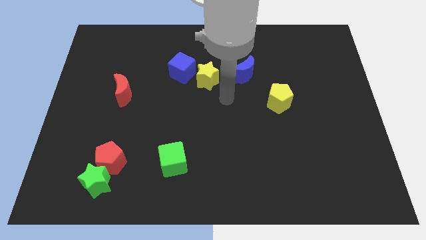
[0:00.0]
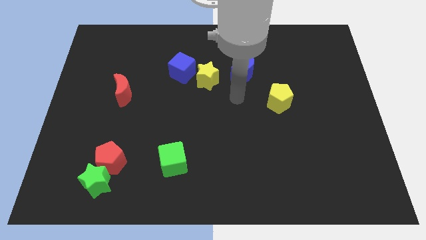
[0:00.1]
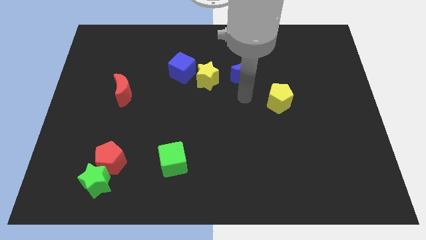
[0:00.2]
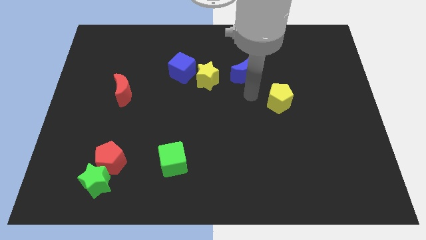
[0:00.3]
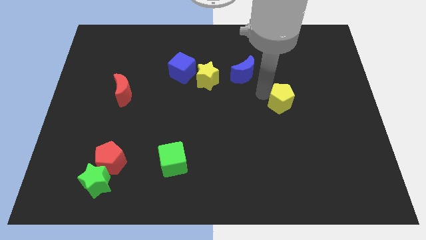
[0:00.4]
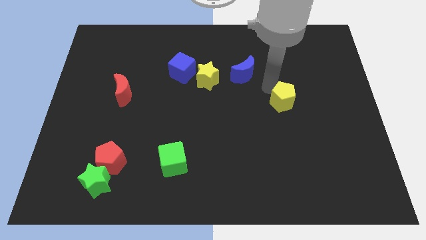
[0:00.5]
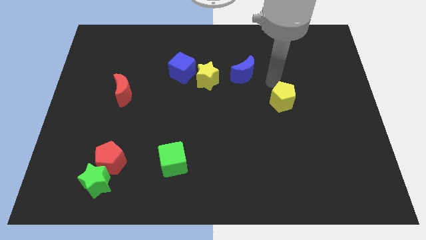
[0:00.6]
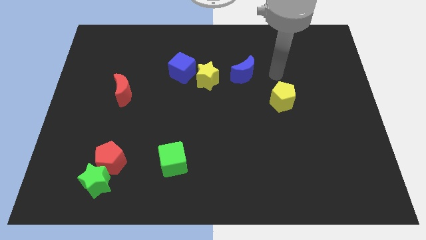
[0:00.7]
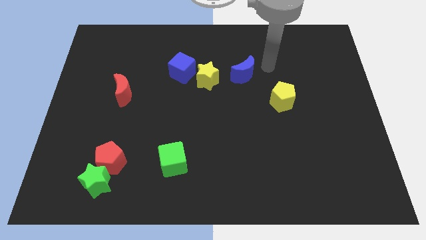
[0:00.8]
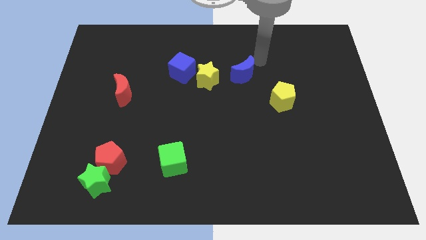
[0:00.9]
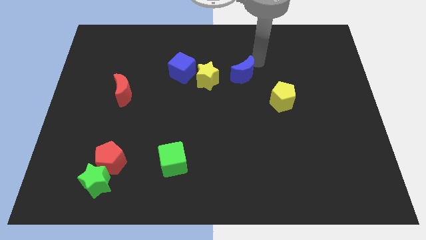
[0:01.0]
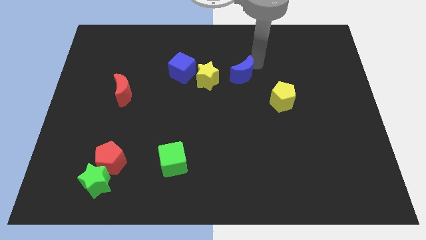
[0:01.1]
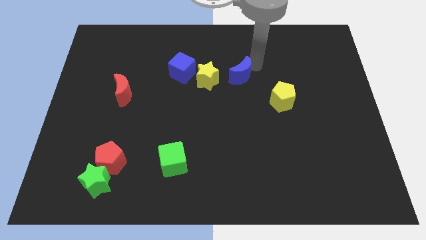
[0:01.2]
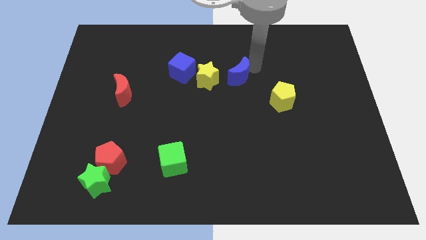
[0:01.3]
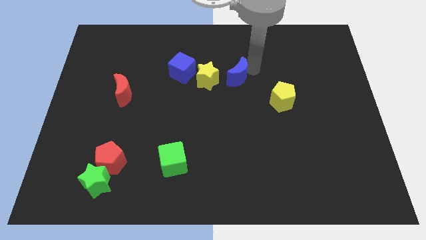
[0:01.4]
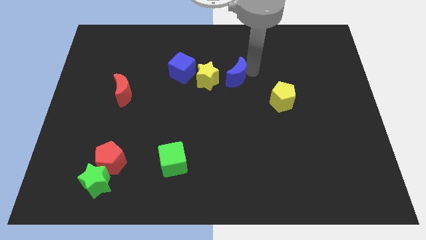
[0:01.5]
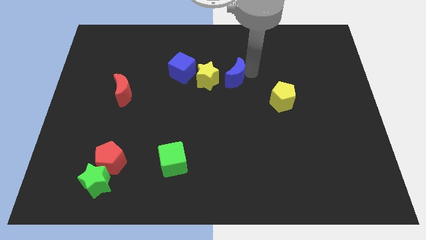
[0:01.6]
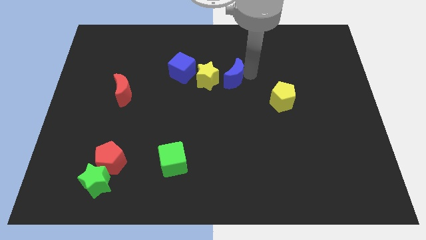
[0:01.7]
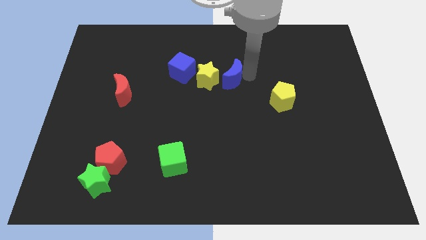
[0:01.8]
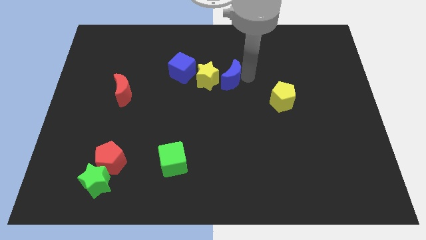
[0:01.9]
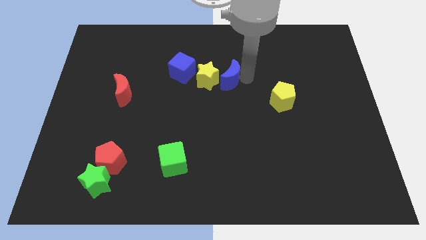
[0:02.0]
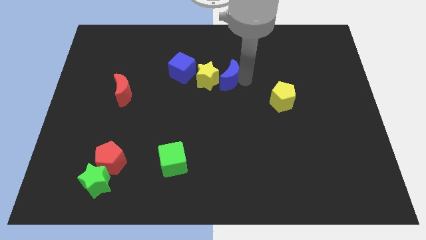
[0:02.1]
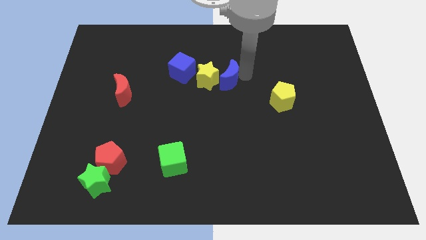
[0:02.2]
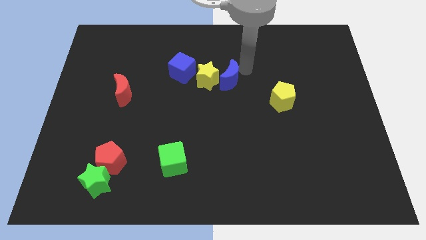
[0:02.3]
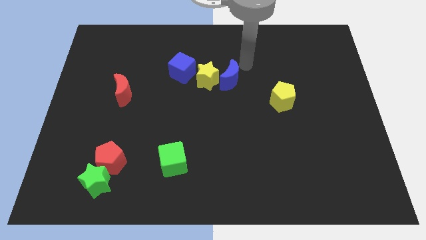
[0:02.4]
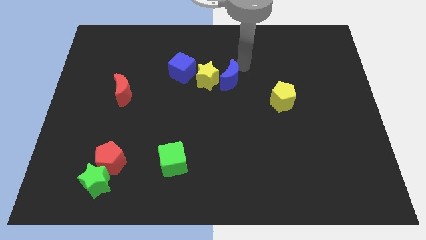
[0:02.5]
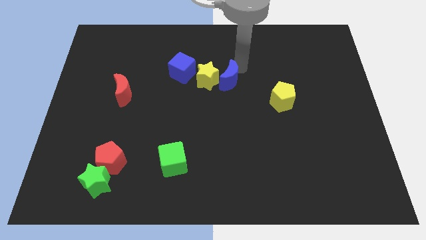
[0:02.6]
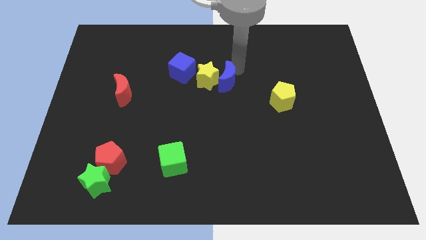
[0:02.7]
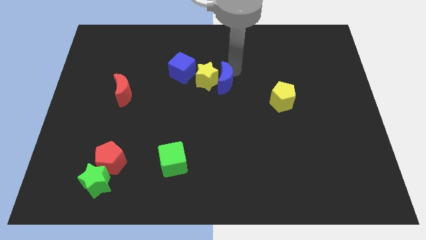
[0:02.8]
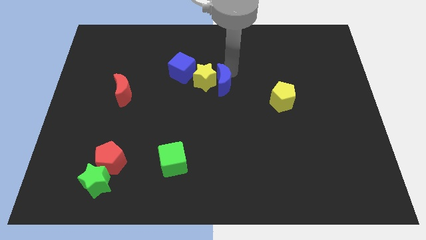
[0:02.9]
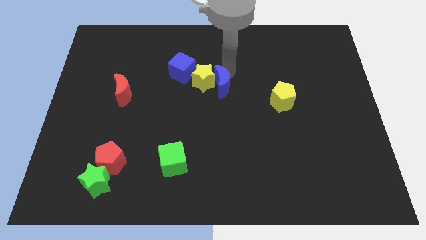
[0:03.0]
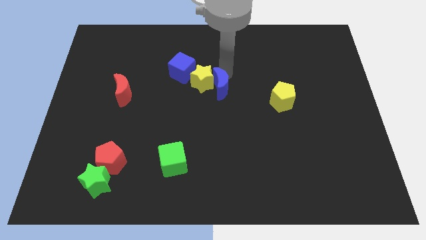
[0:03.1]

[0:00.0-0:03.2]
slightly move the blue moon down and then to the left

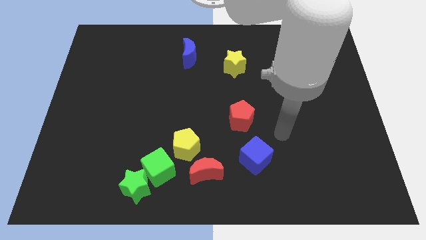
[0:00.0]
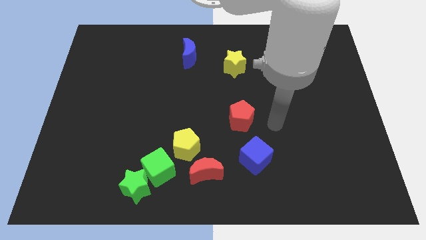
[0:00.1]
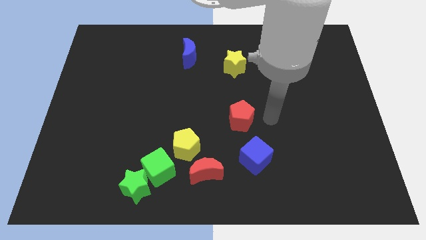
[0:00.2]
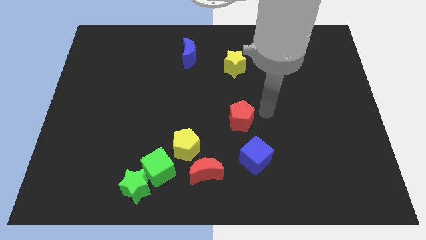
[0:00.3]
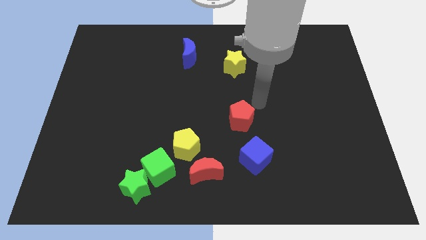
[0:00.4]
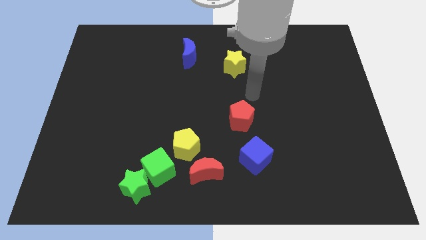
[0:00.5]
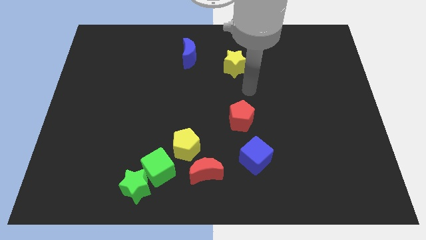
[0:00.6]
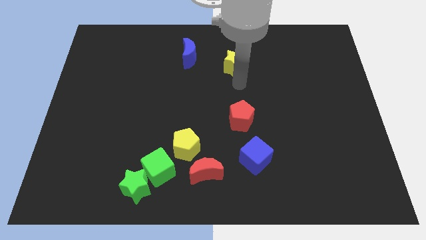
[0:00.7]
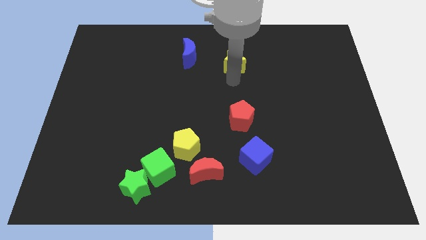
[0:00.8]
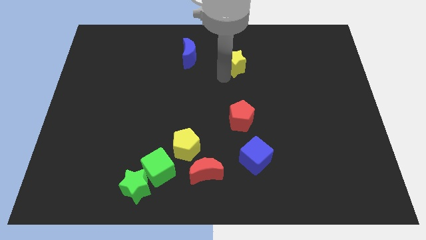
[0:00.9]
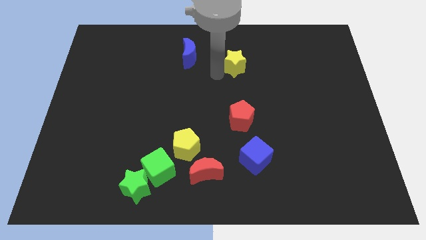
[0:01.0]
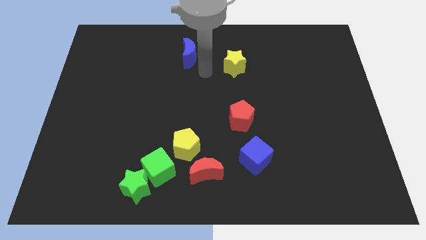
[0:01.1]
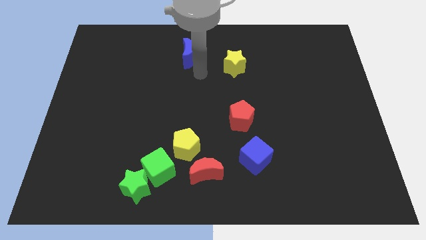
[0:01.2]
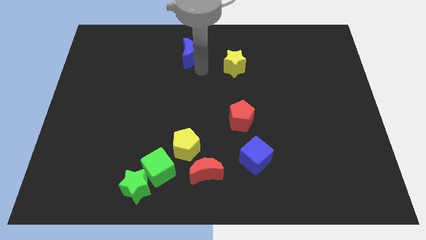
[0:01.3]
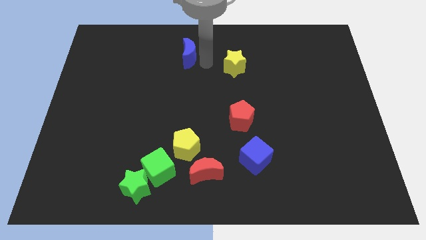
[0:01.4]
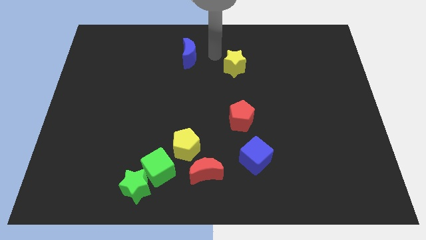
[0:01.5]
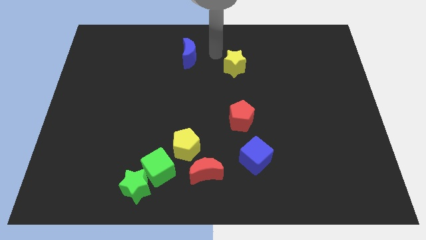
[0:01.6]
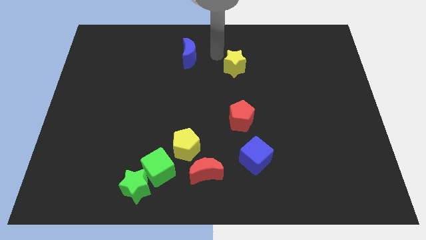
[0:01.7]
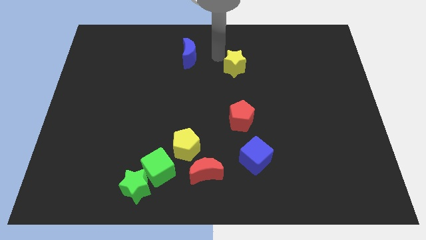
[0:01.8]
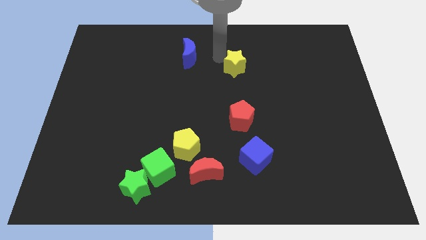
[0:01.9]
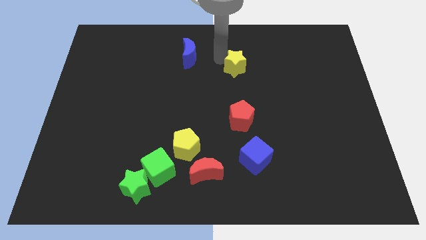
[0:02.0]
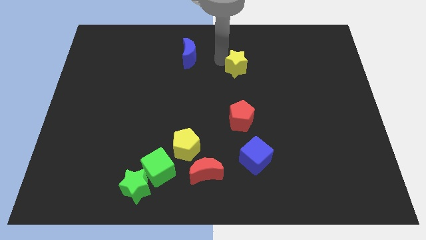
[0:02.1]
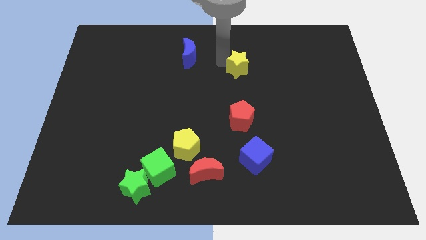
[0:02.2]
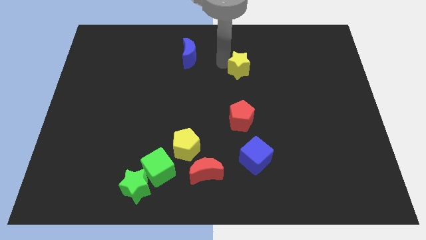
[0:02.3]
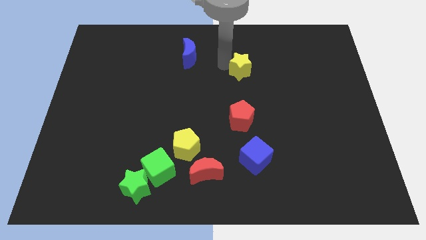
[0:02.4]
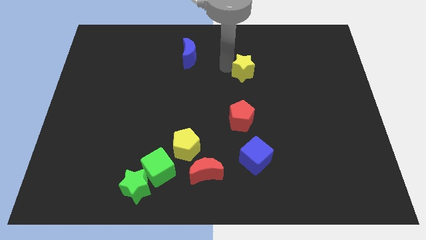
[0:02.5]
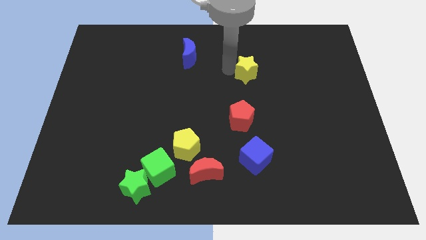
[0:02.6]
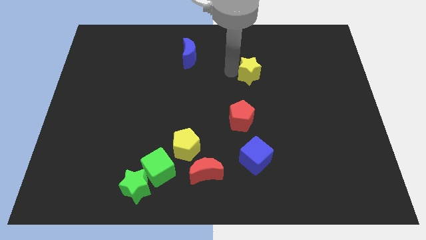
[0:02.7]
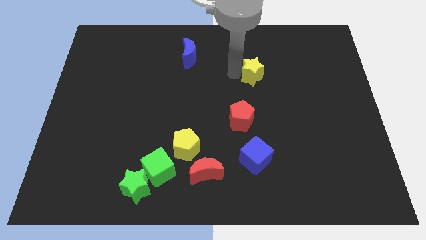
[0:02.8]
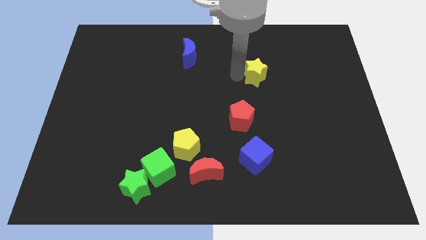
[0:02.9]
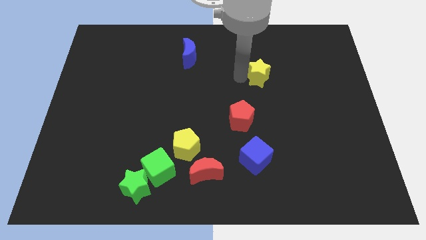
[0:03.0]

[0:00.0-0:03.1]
slightly push the yellow star downwards and to the right

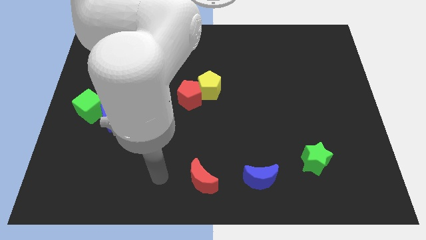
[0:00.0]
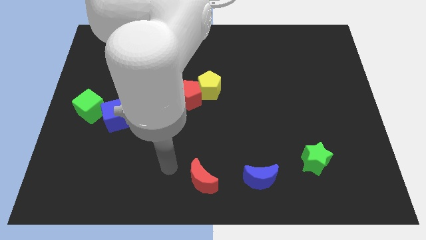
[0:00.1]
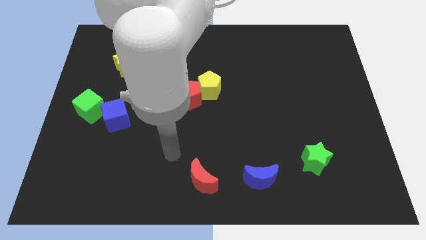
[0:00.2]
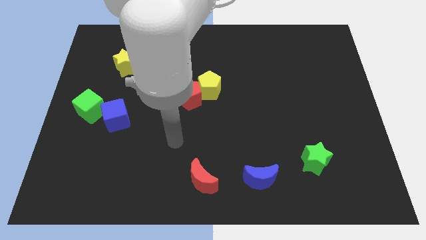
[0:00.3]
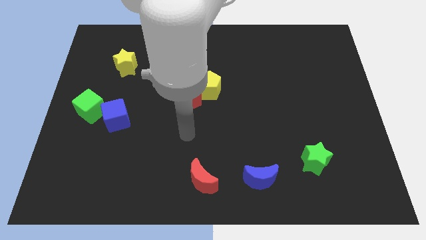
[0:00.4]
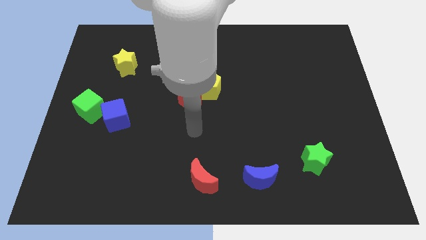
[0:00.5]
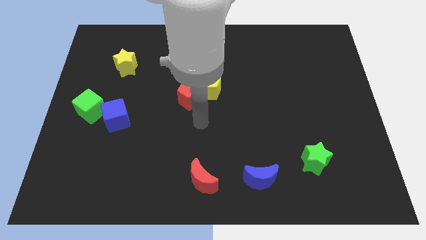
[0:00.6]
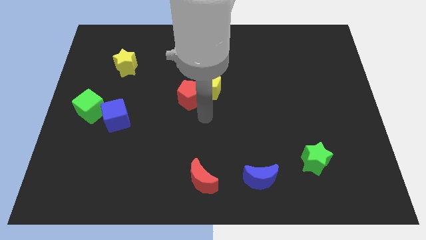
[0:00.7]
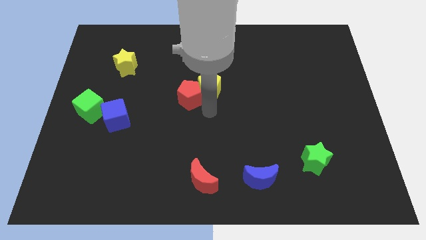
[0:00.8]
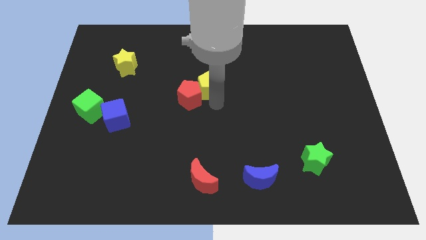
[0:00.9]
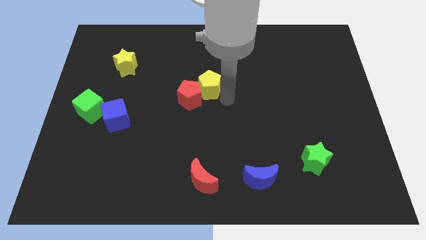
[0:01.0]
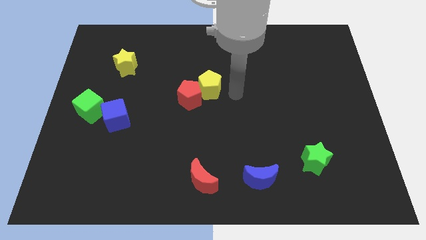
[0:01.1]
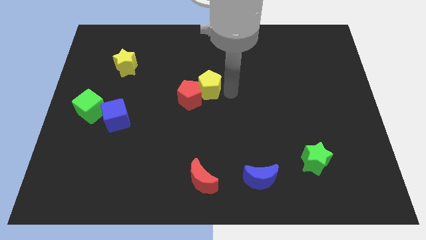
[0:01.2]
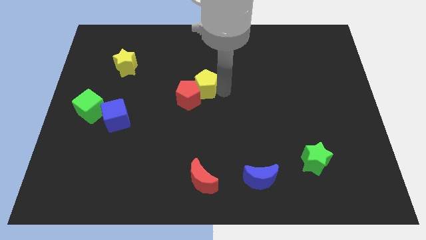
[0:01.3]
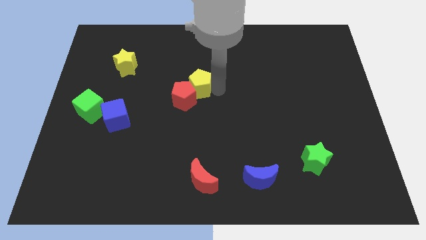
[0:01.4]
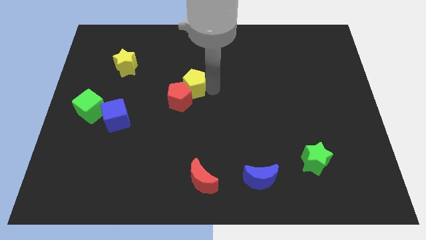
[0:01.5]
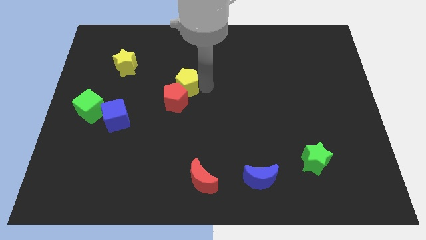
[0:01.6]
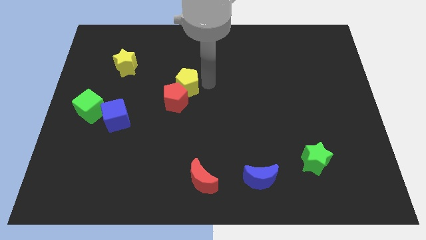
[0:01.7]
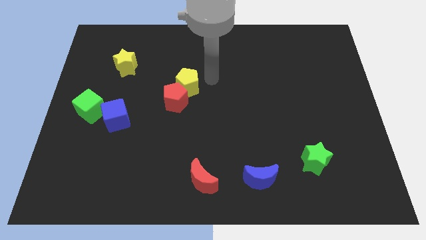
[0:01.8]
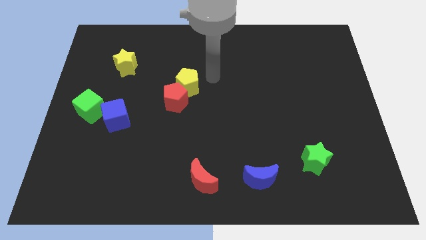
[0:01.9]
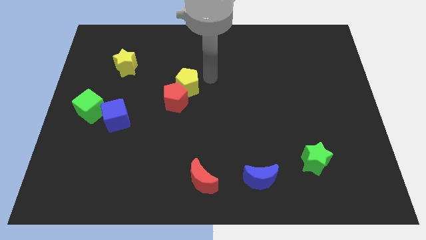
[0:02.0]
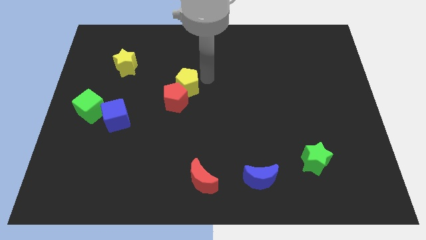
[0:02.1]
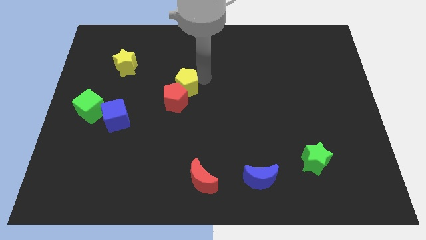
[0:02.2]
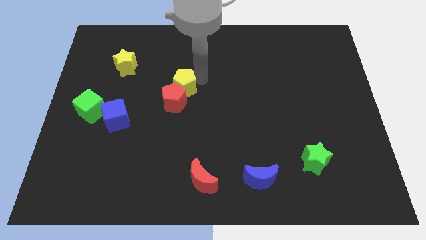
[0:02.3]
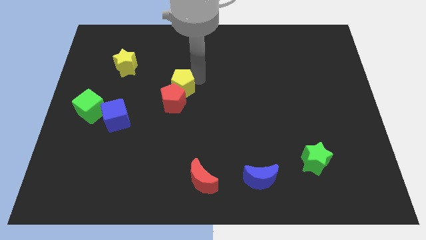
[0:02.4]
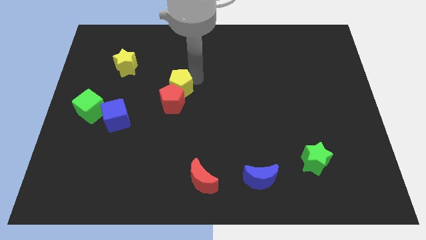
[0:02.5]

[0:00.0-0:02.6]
slightly push the yellow pentagon to the left
